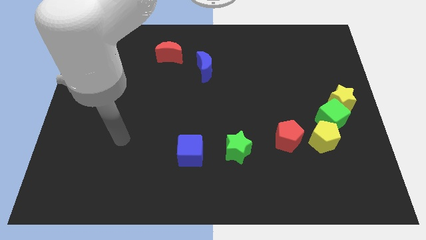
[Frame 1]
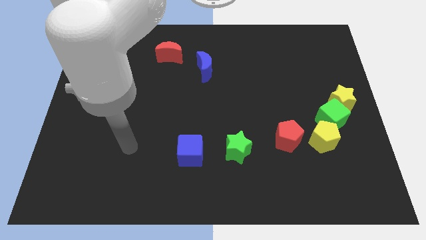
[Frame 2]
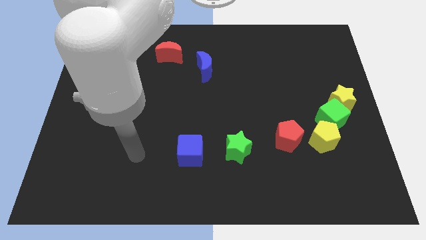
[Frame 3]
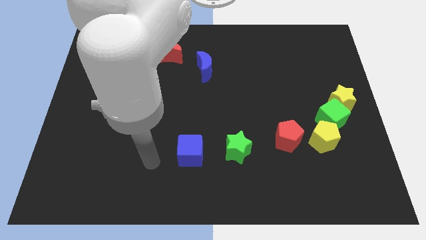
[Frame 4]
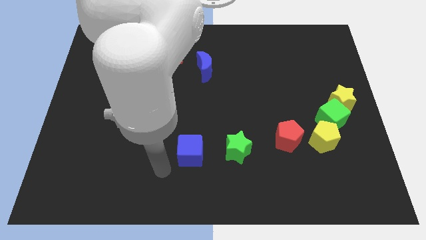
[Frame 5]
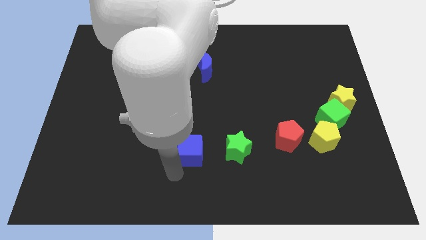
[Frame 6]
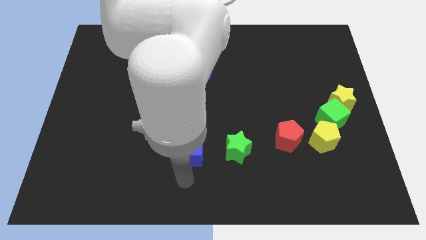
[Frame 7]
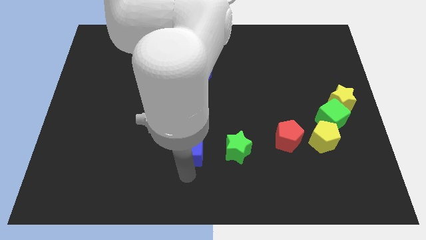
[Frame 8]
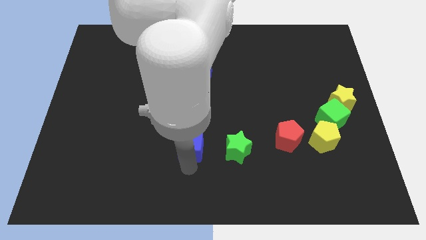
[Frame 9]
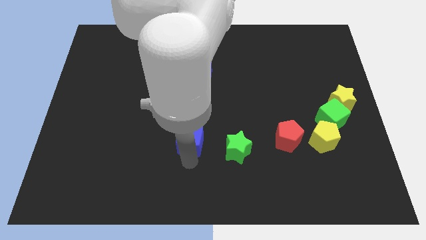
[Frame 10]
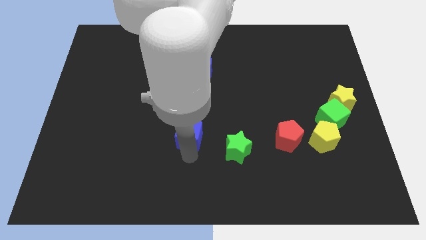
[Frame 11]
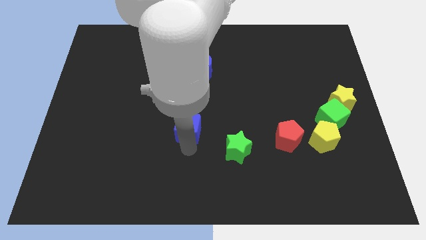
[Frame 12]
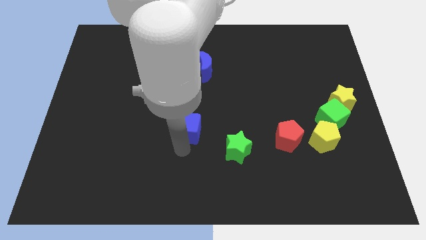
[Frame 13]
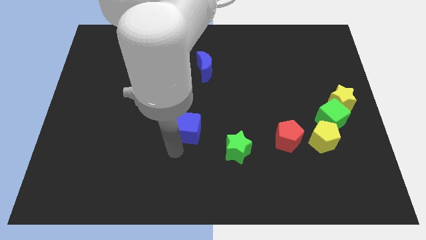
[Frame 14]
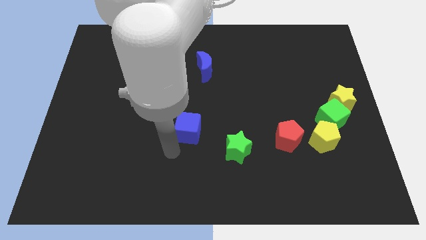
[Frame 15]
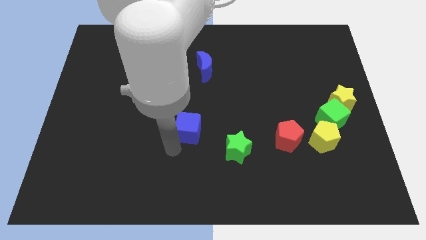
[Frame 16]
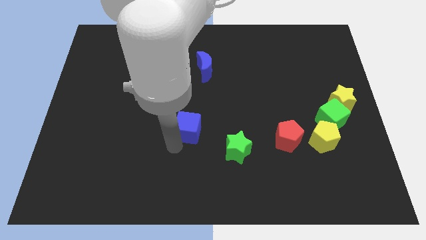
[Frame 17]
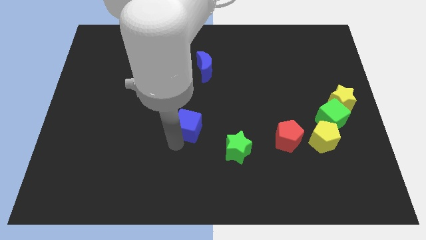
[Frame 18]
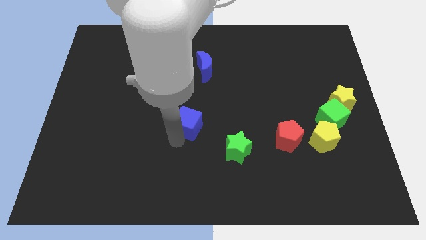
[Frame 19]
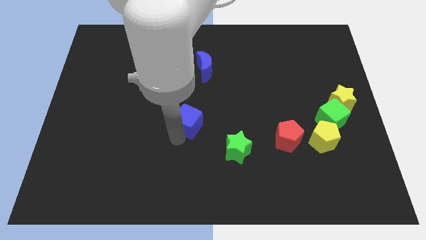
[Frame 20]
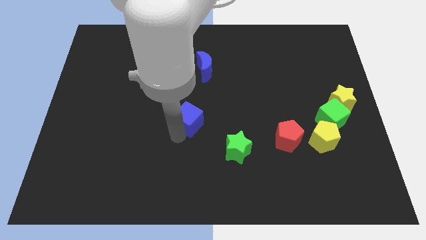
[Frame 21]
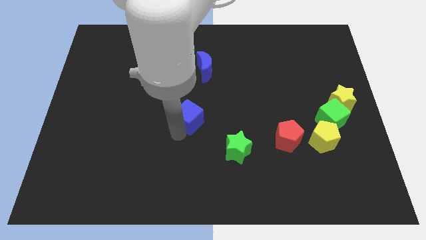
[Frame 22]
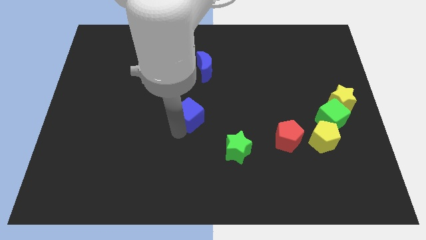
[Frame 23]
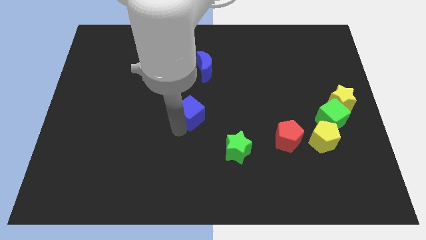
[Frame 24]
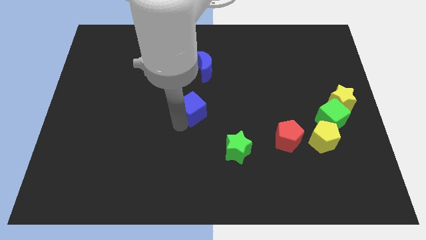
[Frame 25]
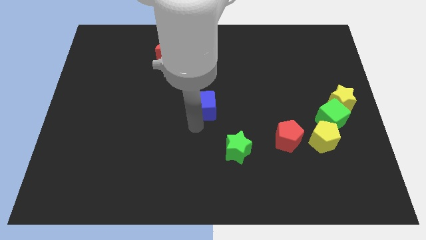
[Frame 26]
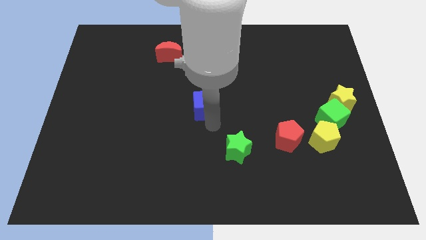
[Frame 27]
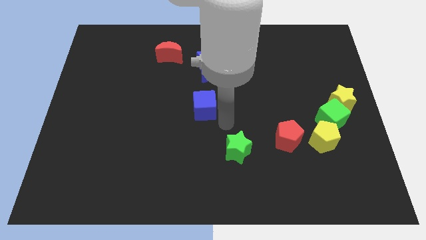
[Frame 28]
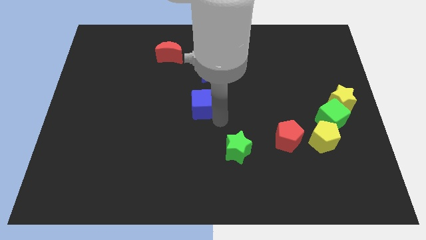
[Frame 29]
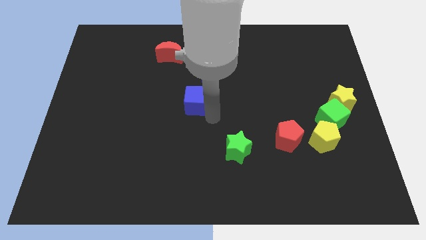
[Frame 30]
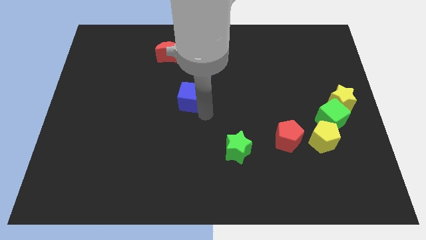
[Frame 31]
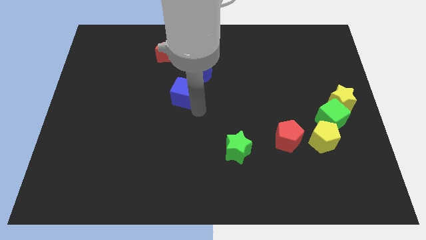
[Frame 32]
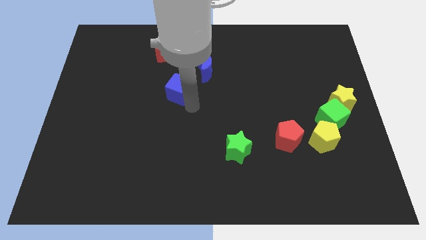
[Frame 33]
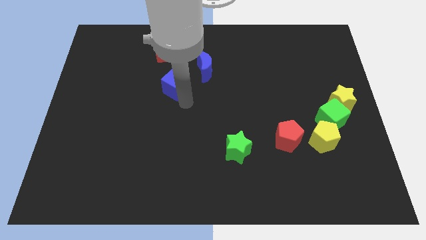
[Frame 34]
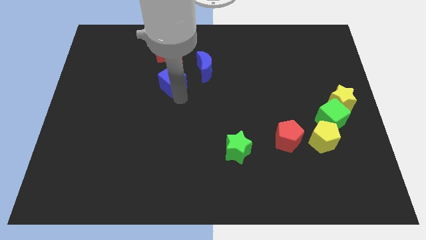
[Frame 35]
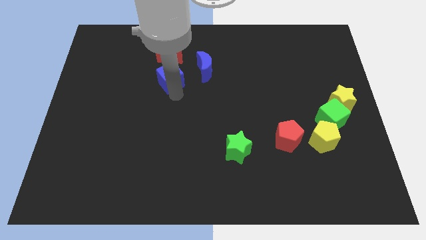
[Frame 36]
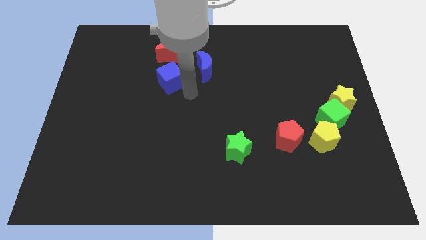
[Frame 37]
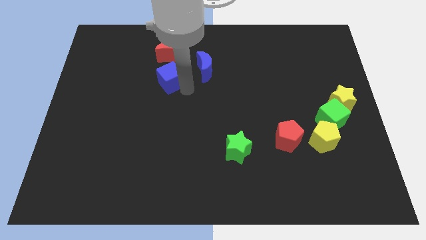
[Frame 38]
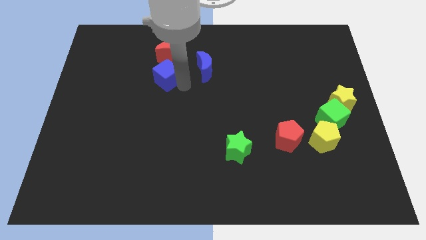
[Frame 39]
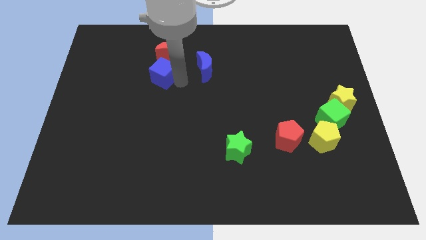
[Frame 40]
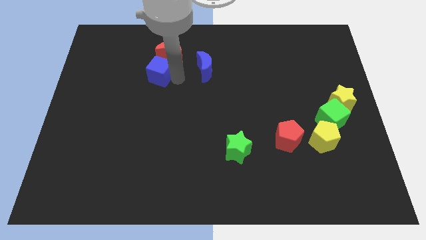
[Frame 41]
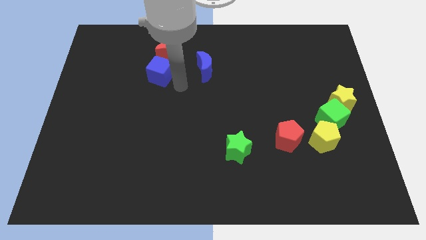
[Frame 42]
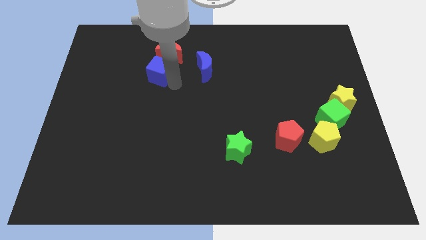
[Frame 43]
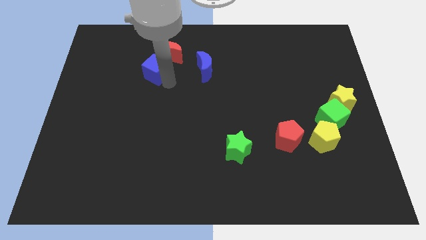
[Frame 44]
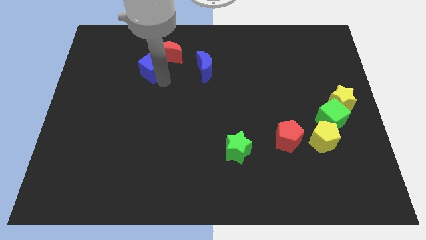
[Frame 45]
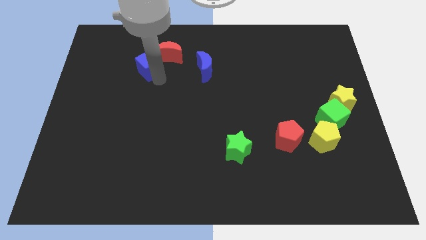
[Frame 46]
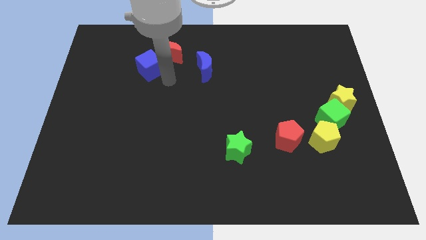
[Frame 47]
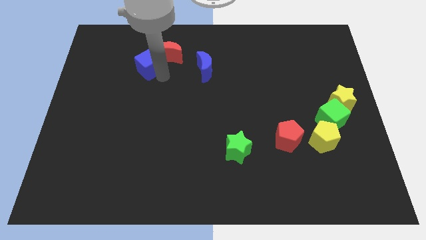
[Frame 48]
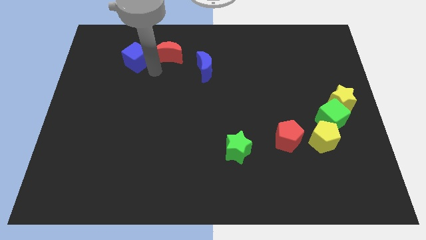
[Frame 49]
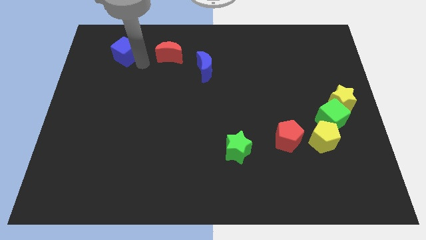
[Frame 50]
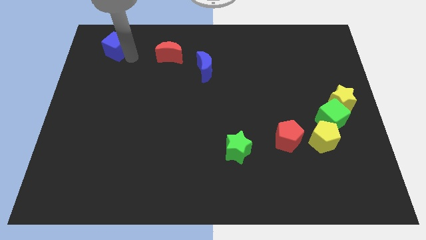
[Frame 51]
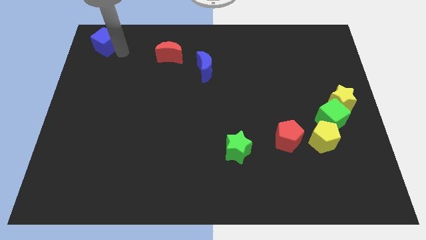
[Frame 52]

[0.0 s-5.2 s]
move the blue cube to the top left
